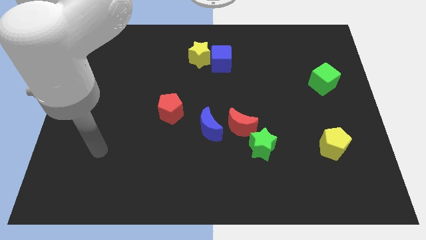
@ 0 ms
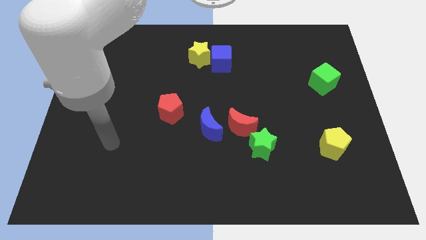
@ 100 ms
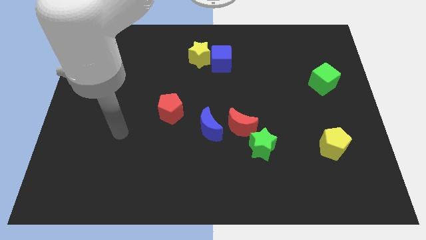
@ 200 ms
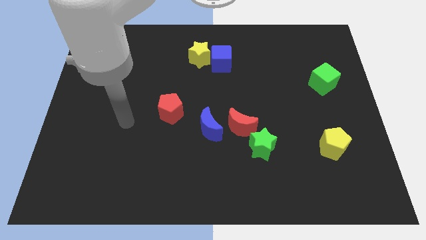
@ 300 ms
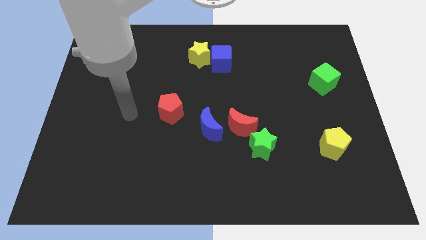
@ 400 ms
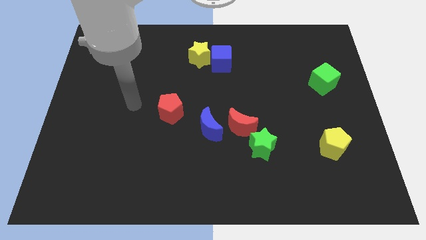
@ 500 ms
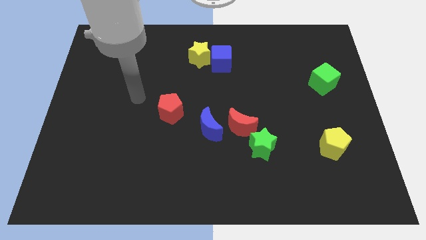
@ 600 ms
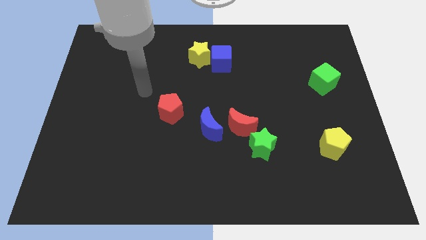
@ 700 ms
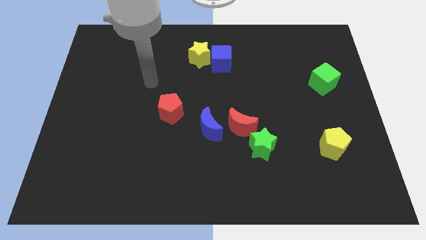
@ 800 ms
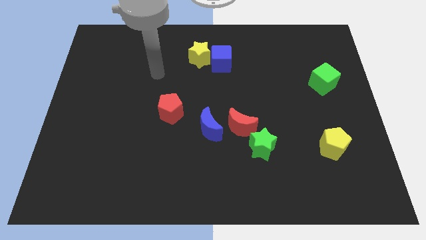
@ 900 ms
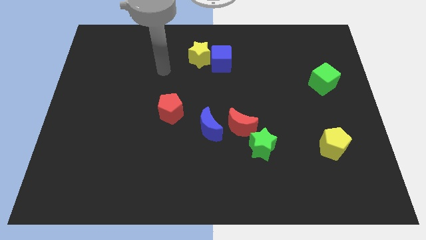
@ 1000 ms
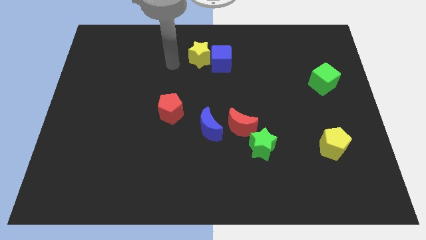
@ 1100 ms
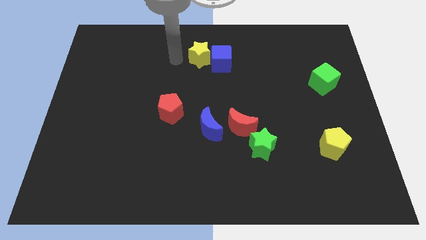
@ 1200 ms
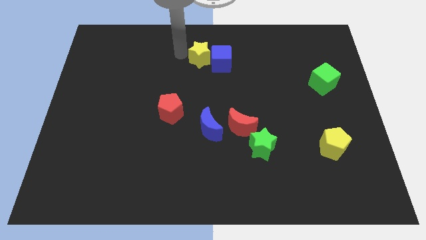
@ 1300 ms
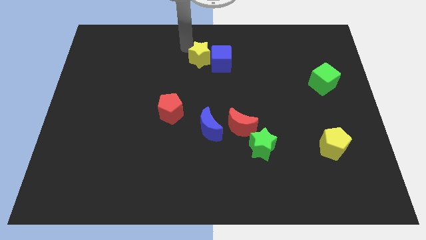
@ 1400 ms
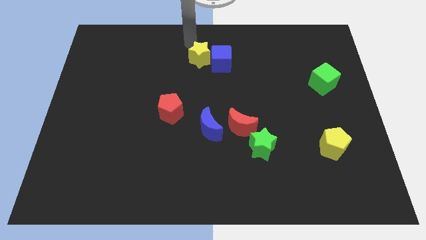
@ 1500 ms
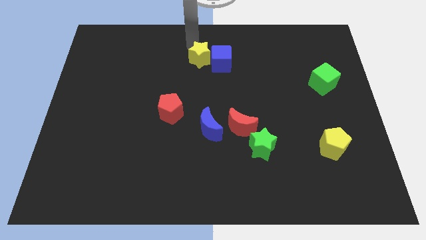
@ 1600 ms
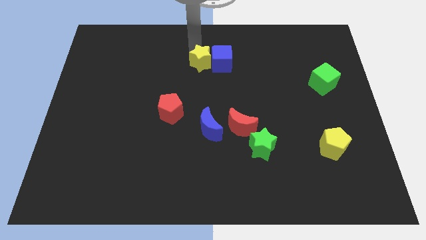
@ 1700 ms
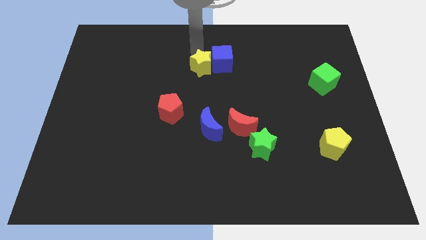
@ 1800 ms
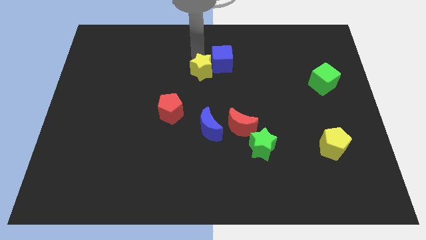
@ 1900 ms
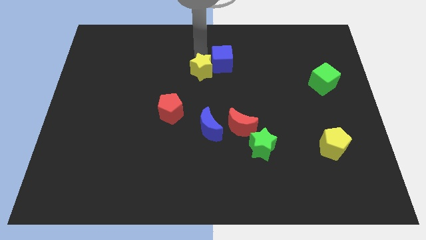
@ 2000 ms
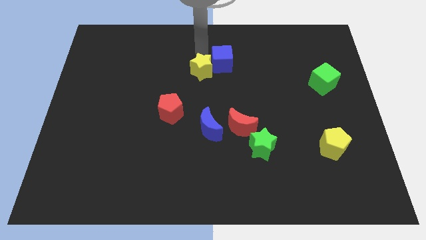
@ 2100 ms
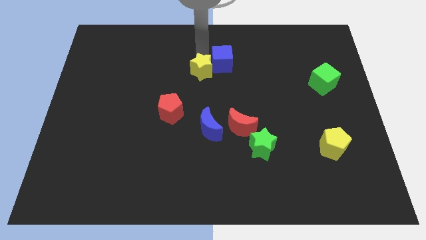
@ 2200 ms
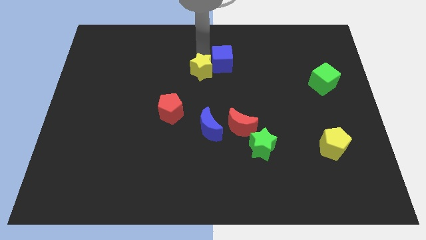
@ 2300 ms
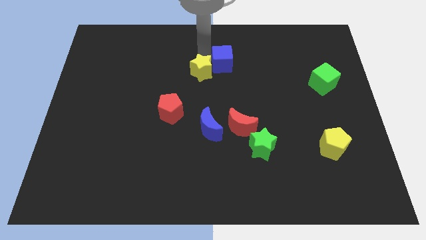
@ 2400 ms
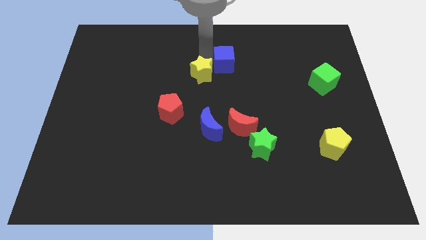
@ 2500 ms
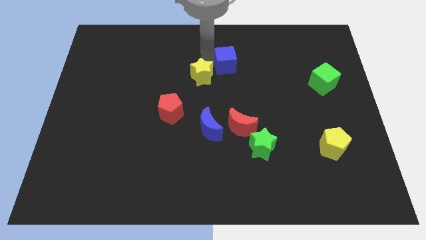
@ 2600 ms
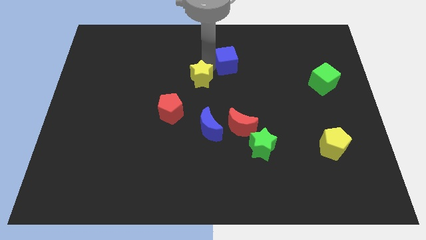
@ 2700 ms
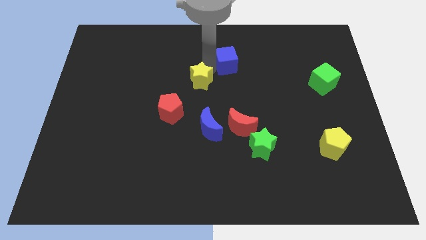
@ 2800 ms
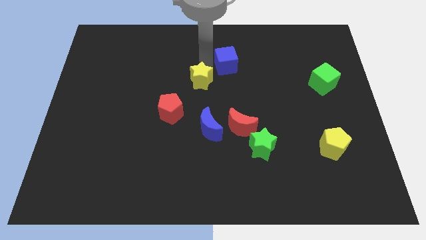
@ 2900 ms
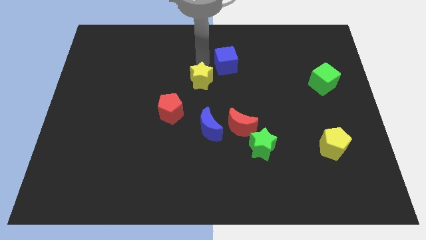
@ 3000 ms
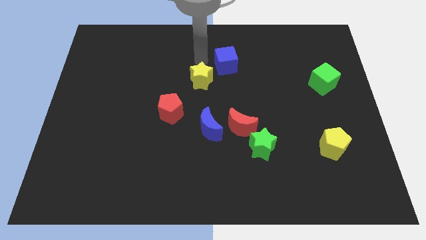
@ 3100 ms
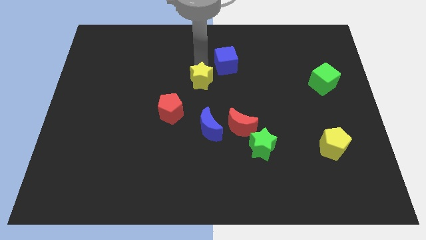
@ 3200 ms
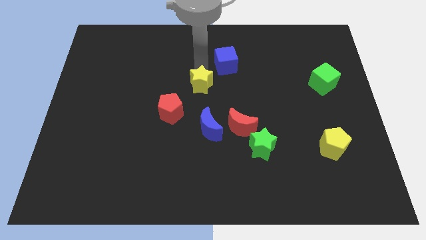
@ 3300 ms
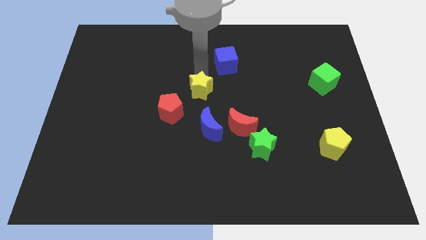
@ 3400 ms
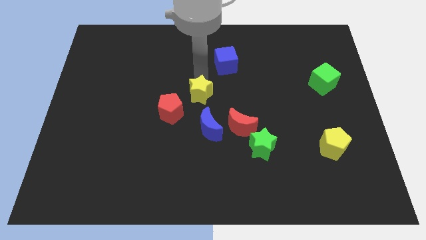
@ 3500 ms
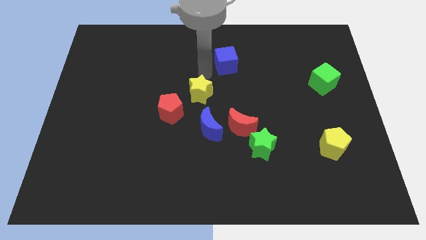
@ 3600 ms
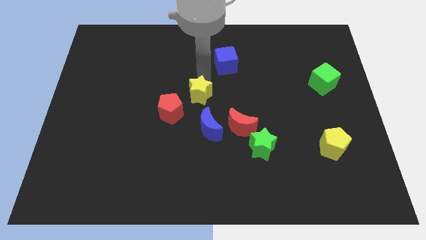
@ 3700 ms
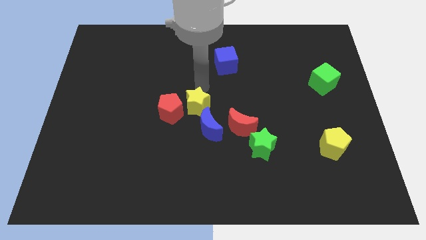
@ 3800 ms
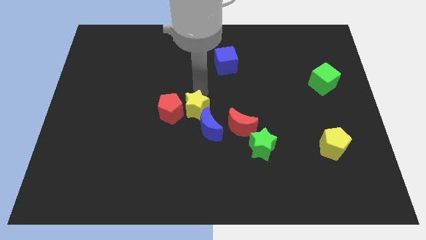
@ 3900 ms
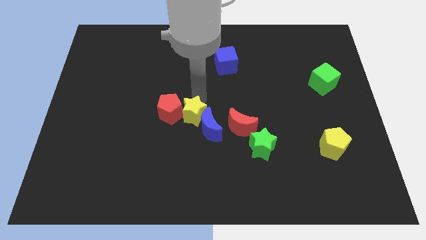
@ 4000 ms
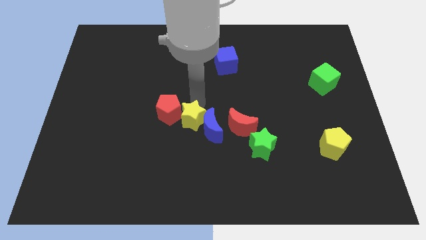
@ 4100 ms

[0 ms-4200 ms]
push the yellow star down

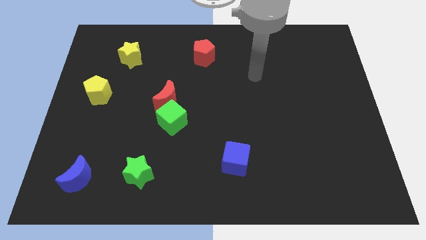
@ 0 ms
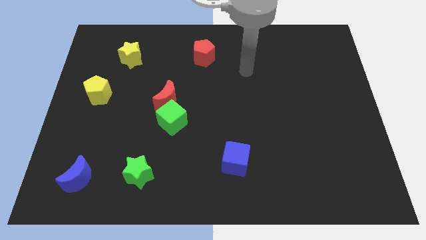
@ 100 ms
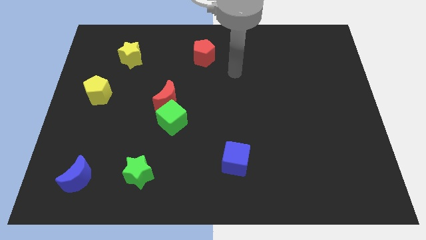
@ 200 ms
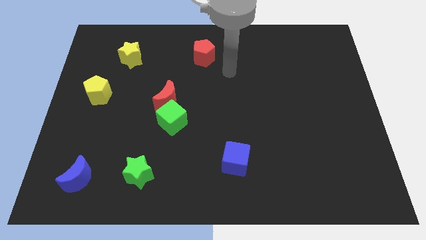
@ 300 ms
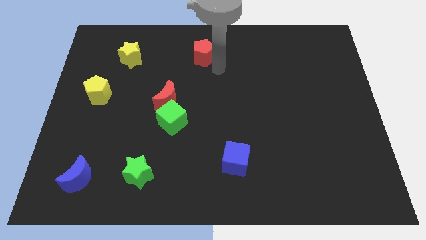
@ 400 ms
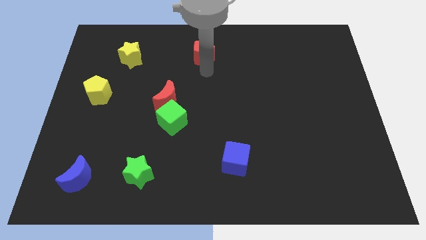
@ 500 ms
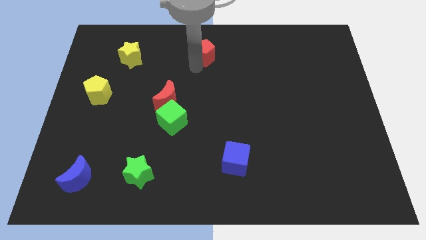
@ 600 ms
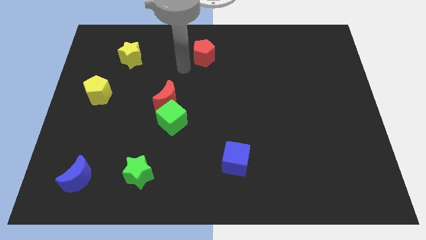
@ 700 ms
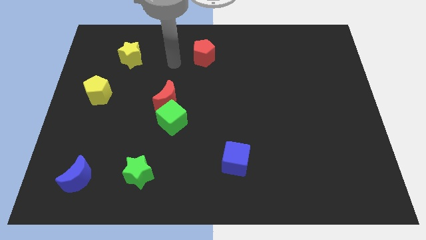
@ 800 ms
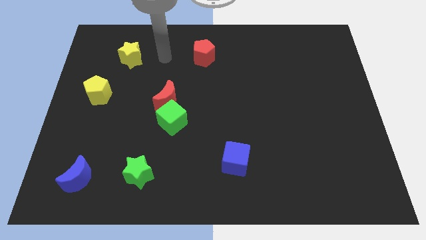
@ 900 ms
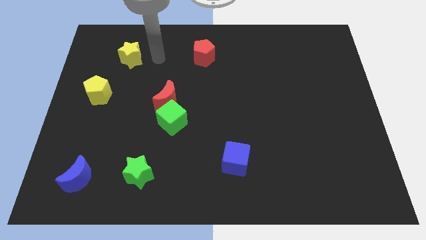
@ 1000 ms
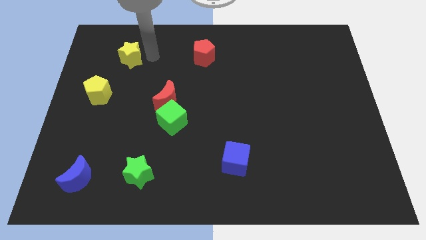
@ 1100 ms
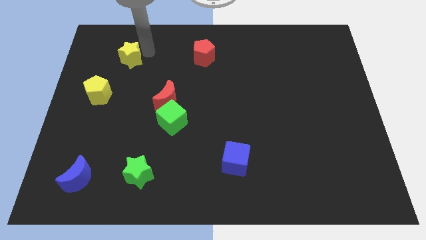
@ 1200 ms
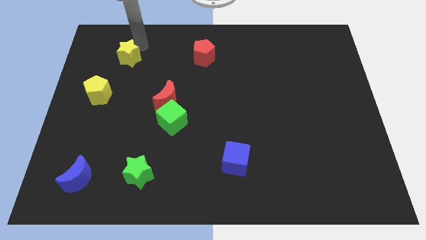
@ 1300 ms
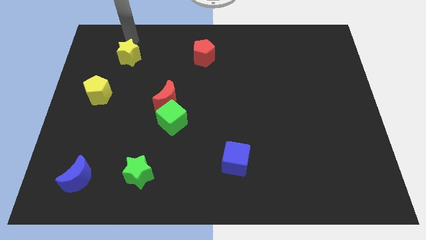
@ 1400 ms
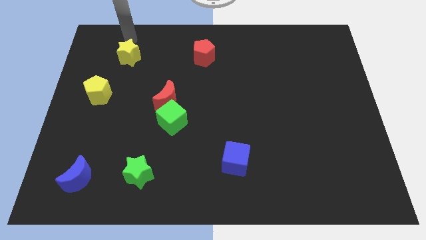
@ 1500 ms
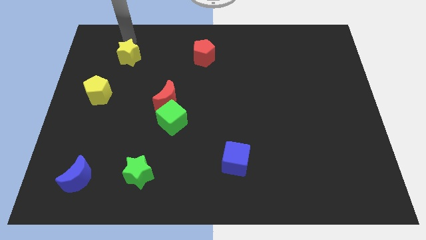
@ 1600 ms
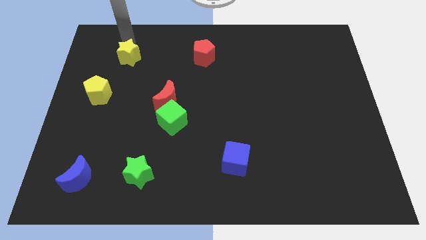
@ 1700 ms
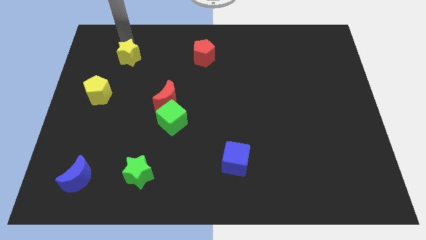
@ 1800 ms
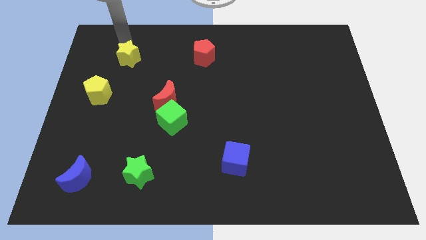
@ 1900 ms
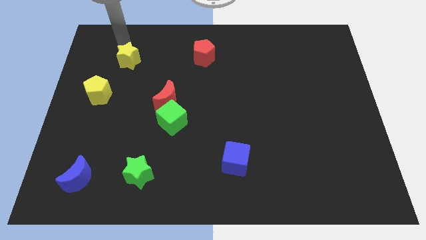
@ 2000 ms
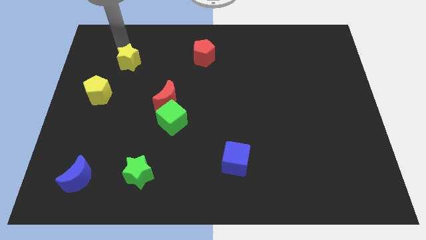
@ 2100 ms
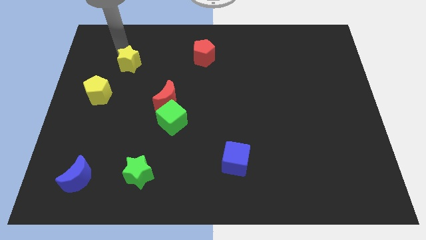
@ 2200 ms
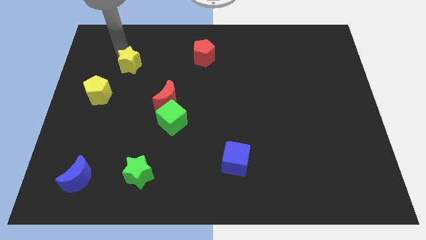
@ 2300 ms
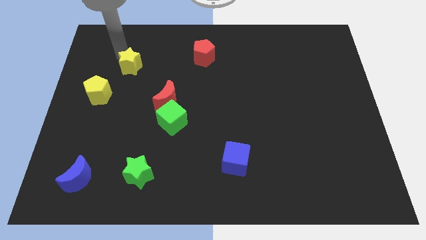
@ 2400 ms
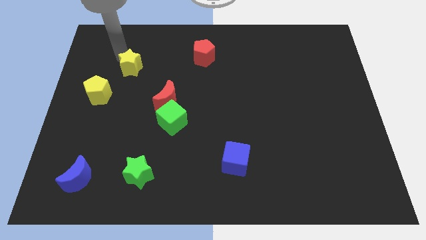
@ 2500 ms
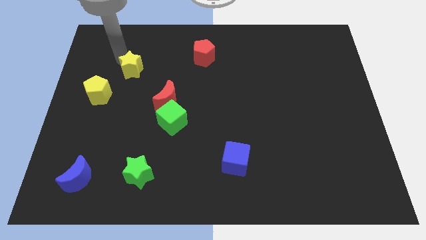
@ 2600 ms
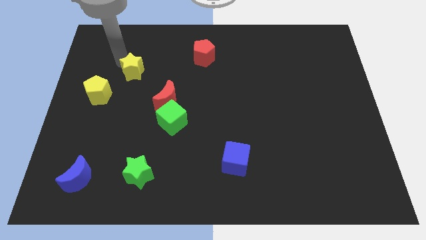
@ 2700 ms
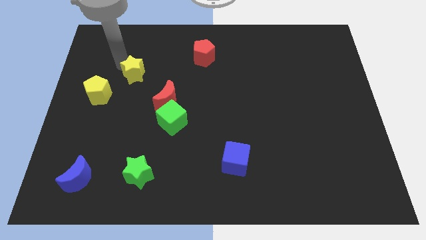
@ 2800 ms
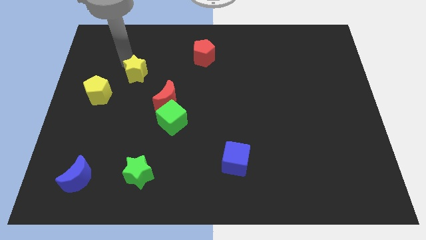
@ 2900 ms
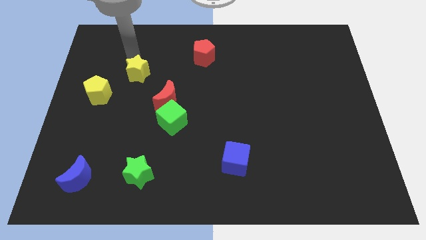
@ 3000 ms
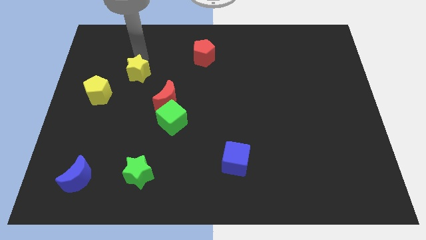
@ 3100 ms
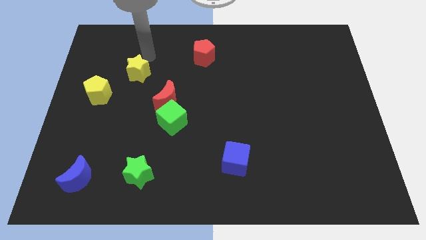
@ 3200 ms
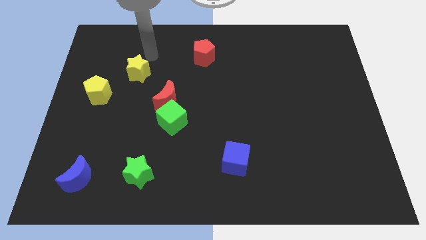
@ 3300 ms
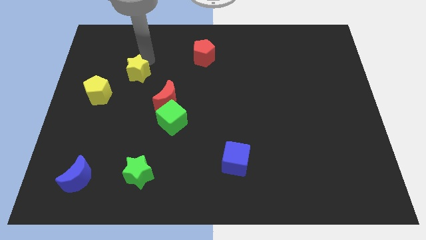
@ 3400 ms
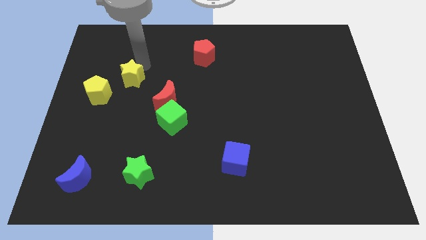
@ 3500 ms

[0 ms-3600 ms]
push the yellow star down somewhat
